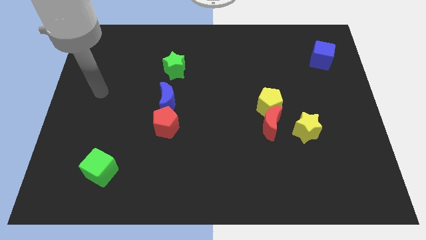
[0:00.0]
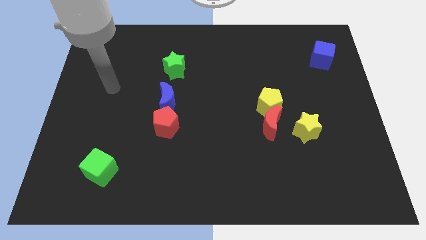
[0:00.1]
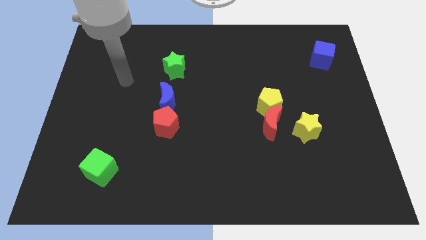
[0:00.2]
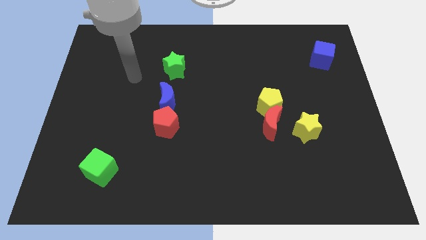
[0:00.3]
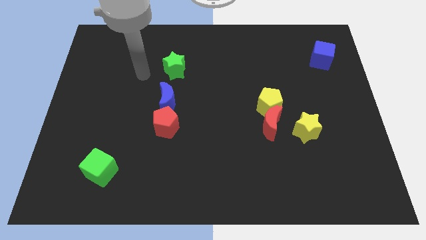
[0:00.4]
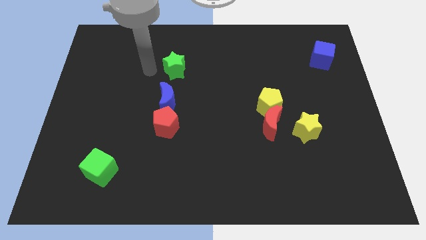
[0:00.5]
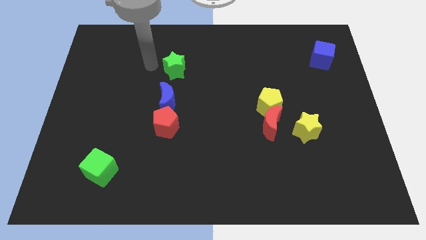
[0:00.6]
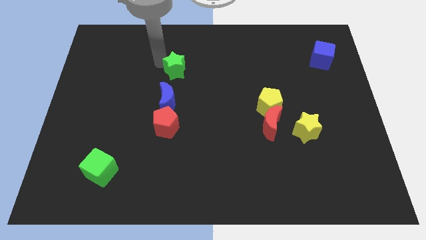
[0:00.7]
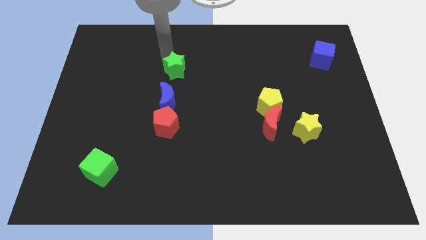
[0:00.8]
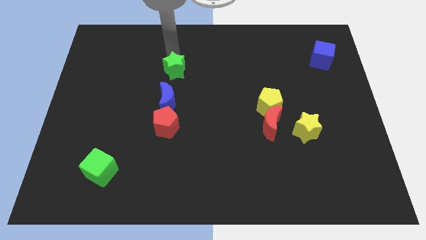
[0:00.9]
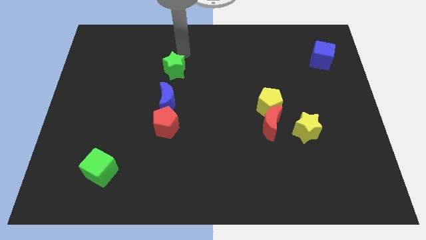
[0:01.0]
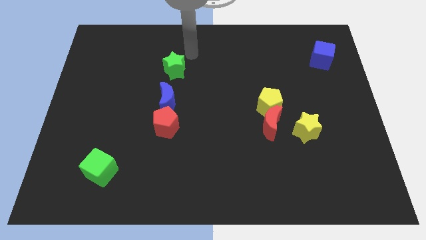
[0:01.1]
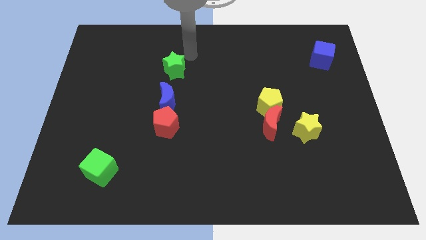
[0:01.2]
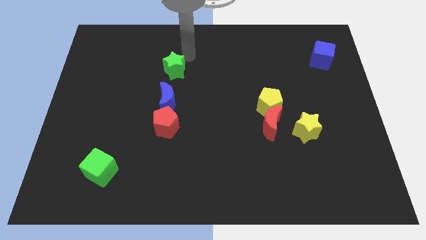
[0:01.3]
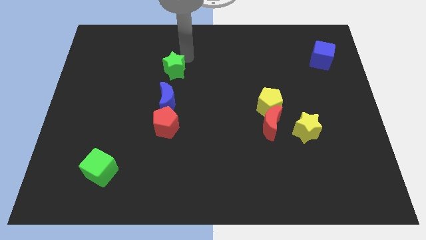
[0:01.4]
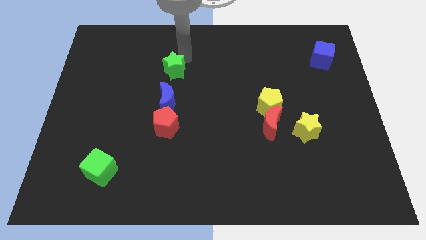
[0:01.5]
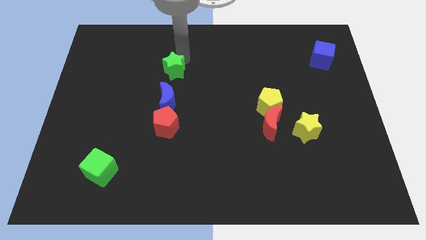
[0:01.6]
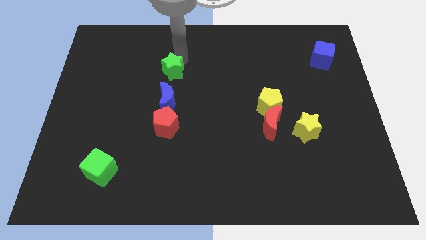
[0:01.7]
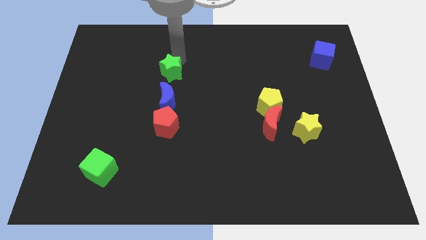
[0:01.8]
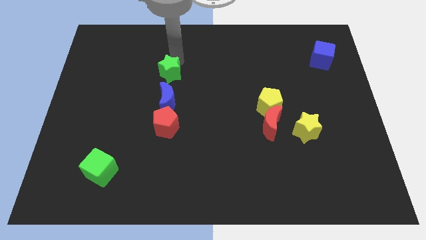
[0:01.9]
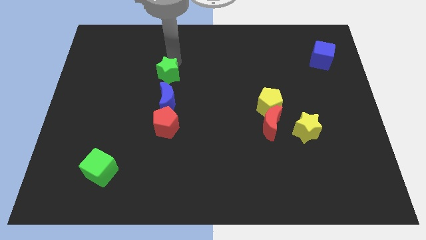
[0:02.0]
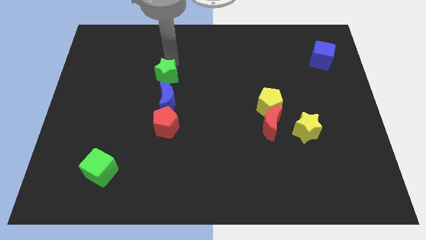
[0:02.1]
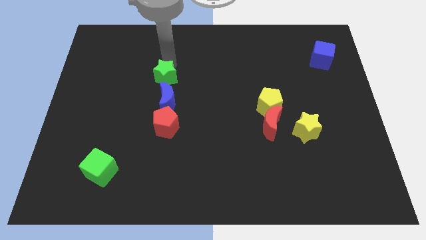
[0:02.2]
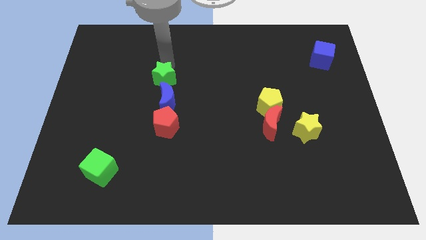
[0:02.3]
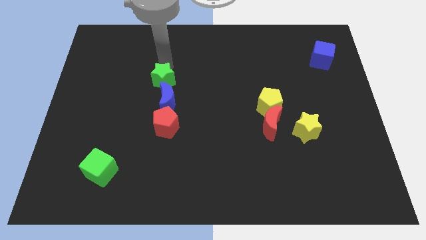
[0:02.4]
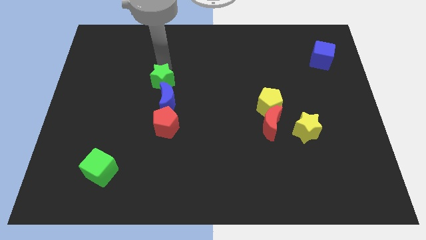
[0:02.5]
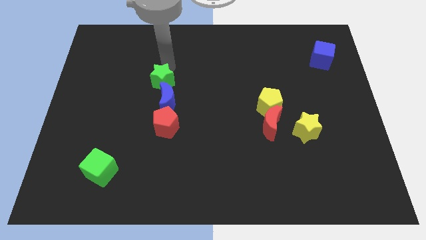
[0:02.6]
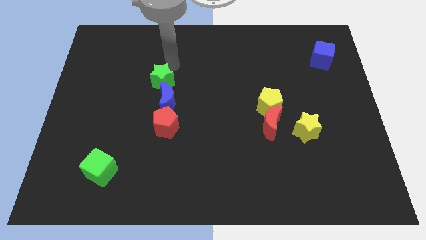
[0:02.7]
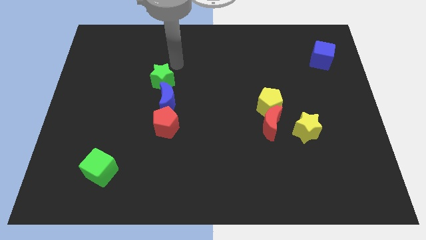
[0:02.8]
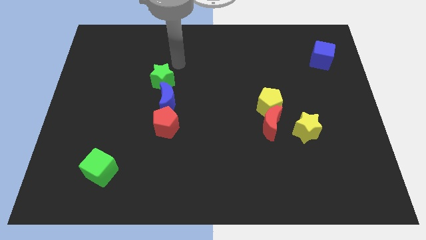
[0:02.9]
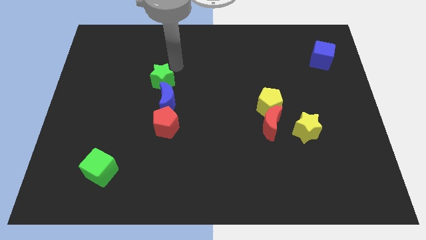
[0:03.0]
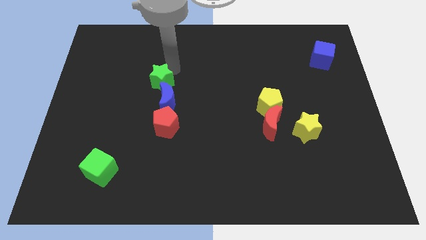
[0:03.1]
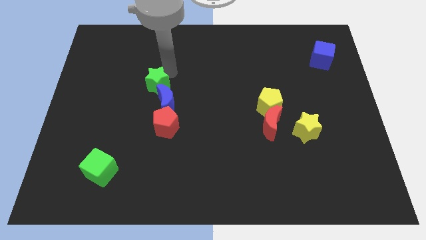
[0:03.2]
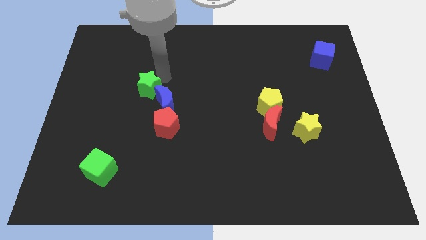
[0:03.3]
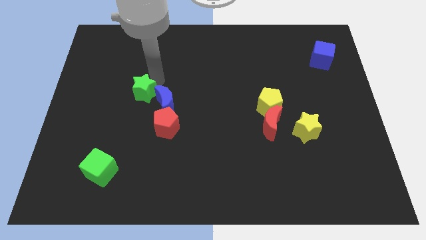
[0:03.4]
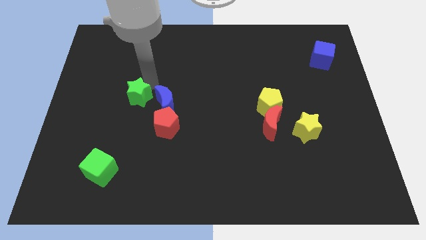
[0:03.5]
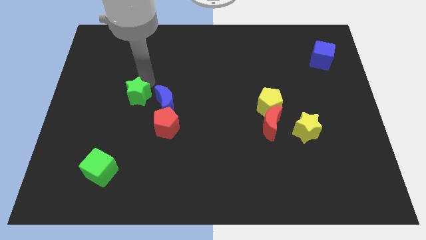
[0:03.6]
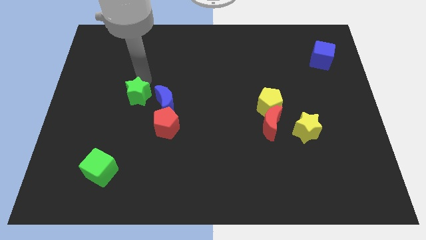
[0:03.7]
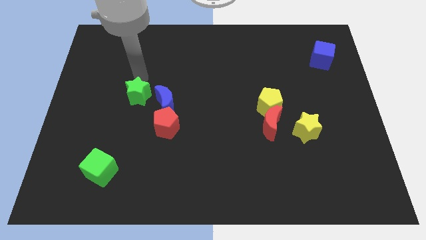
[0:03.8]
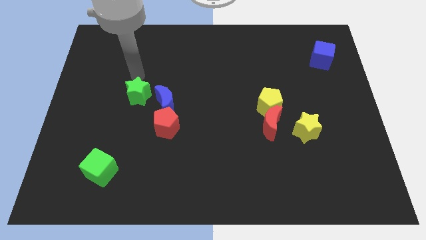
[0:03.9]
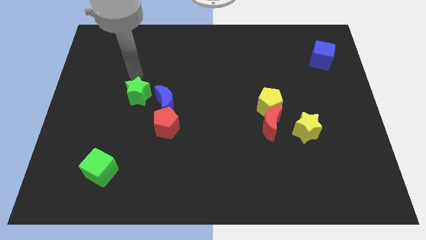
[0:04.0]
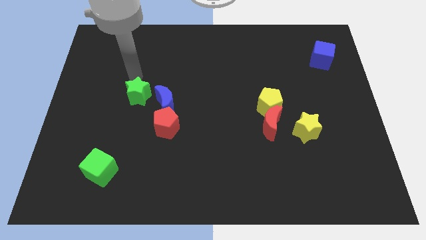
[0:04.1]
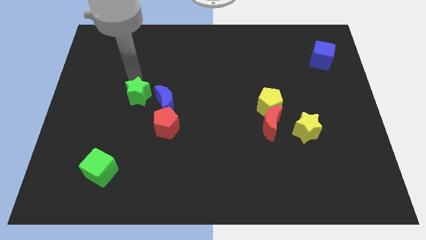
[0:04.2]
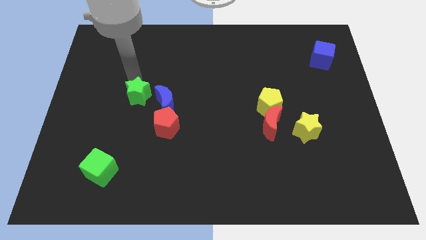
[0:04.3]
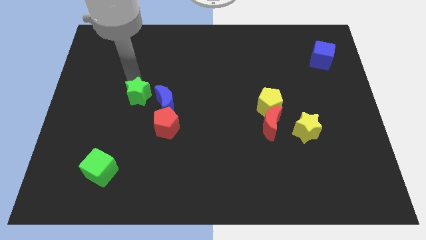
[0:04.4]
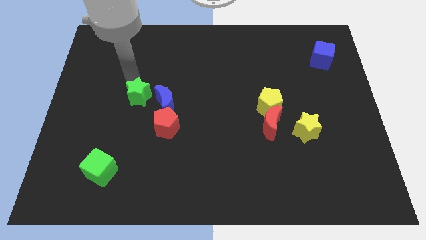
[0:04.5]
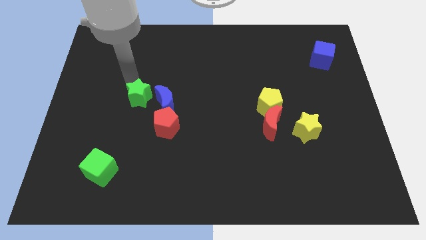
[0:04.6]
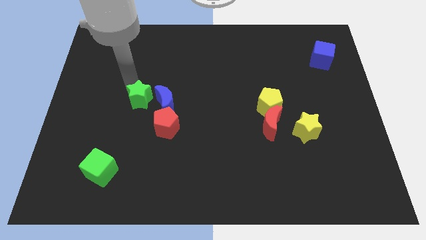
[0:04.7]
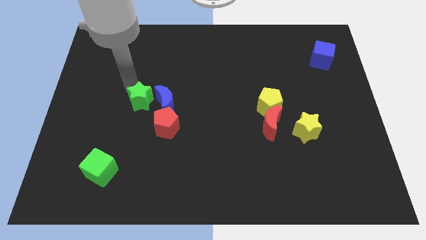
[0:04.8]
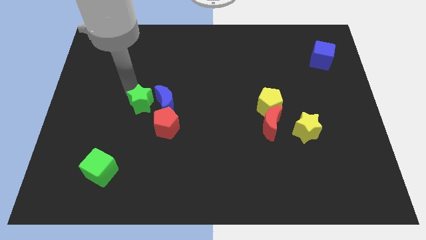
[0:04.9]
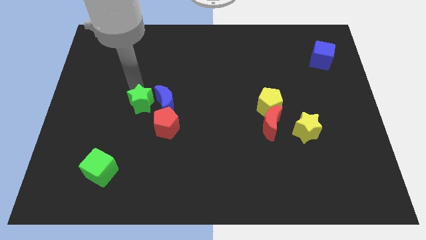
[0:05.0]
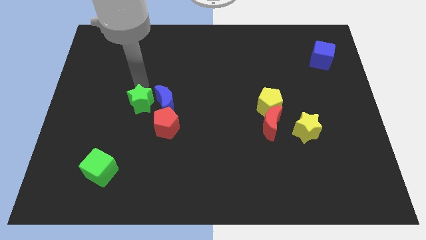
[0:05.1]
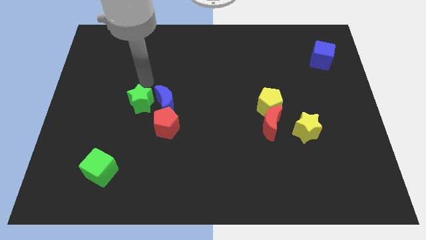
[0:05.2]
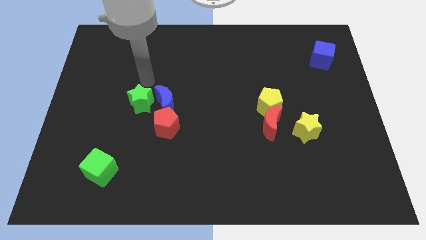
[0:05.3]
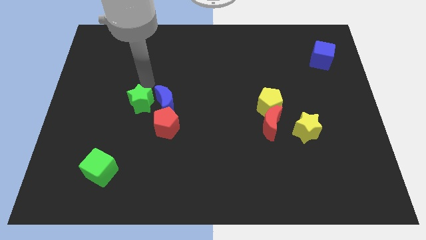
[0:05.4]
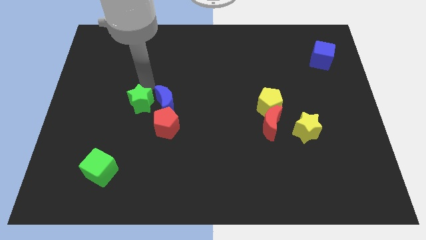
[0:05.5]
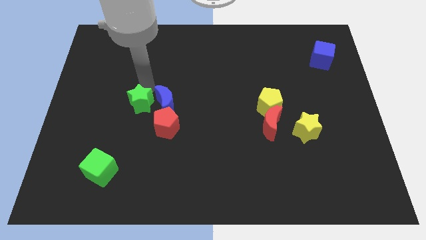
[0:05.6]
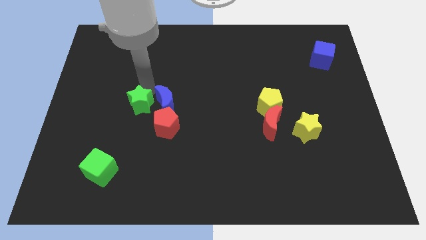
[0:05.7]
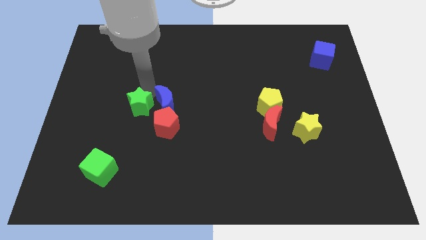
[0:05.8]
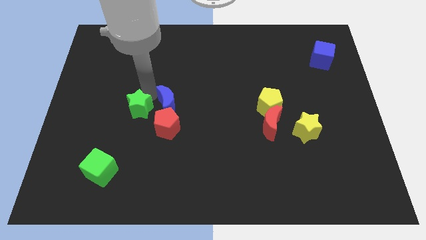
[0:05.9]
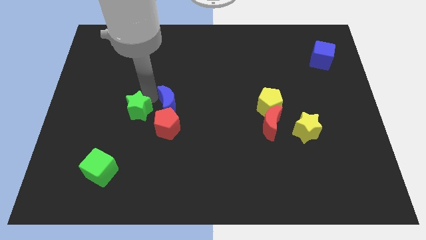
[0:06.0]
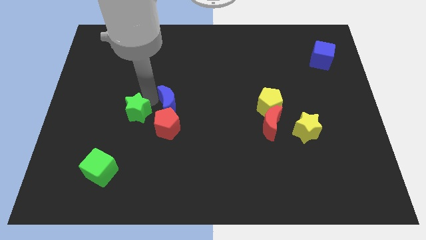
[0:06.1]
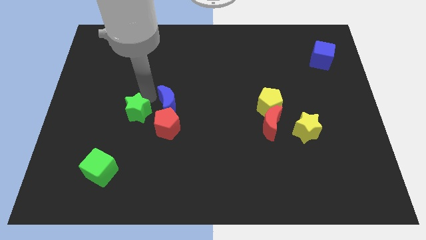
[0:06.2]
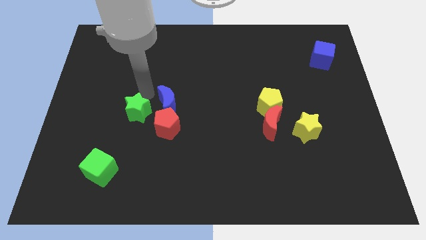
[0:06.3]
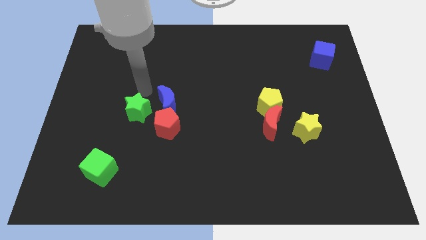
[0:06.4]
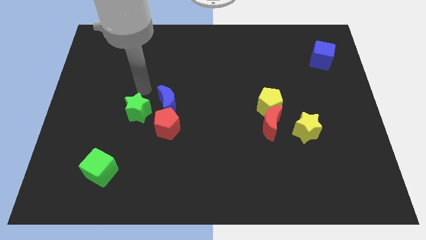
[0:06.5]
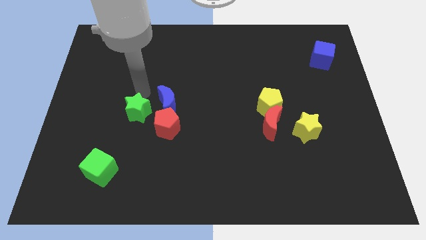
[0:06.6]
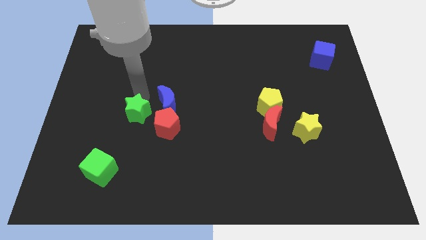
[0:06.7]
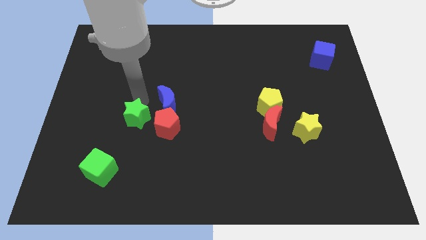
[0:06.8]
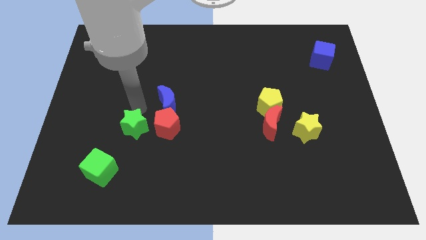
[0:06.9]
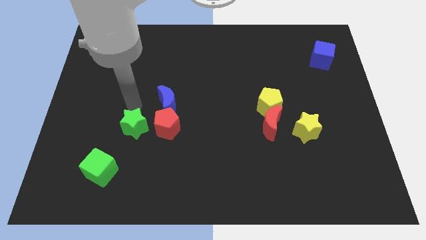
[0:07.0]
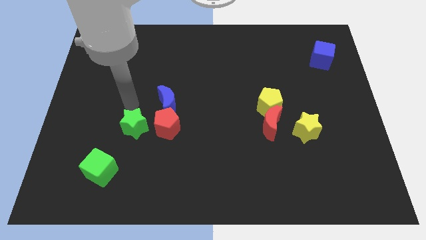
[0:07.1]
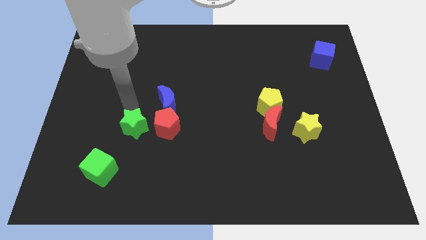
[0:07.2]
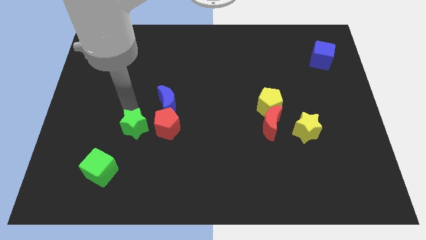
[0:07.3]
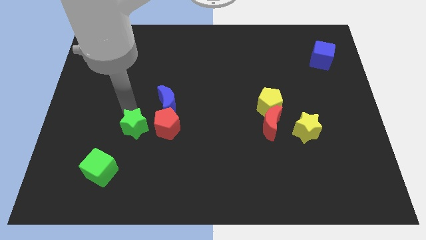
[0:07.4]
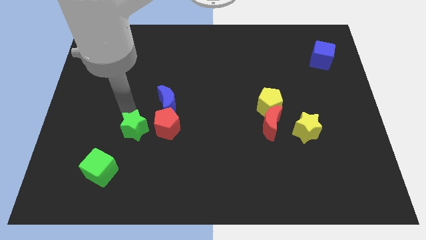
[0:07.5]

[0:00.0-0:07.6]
move the green star to the bottom left of the red pentagon
